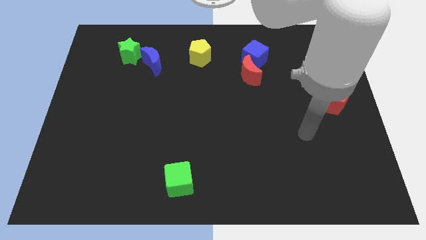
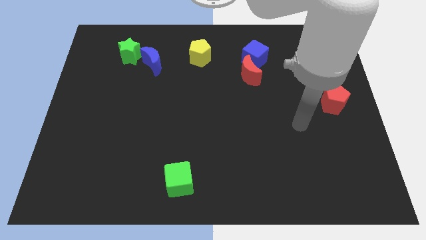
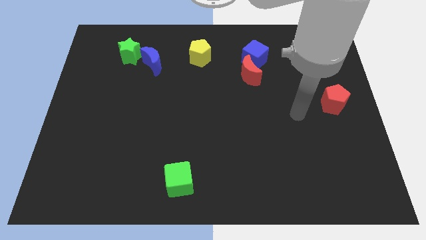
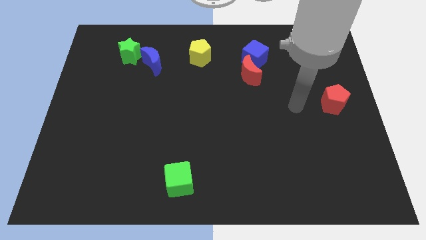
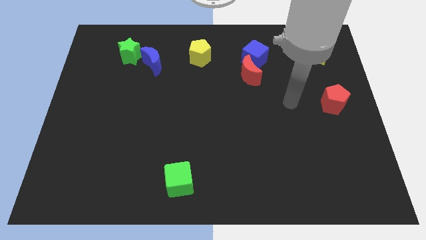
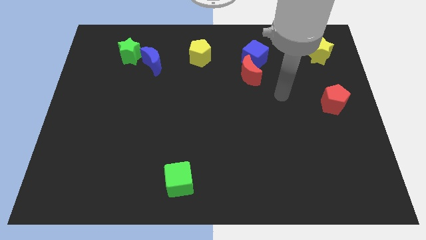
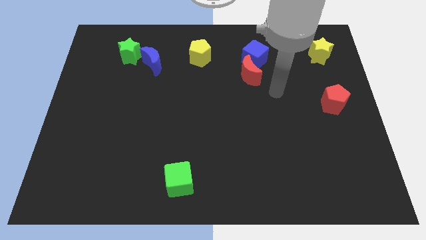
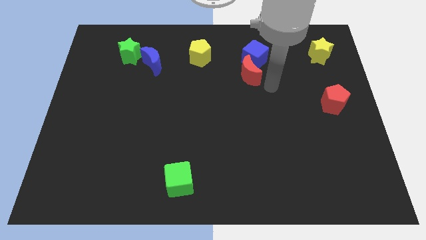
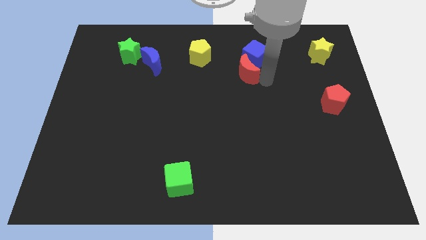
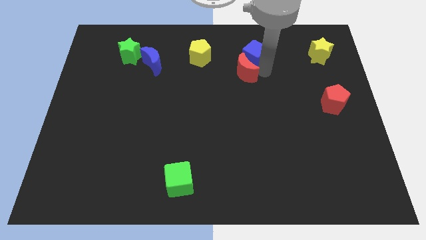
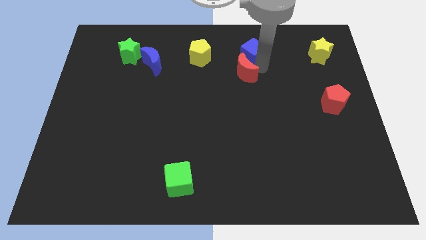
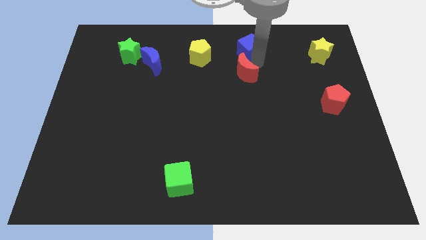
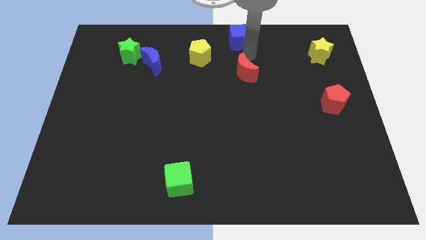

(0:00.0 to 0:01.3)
separate the red moon from the blue cube

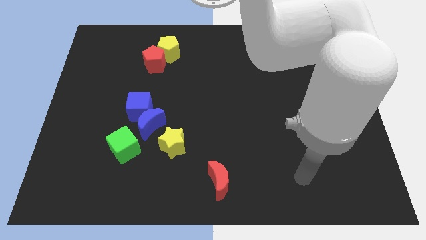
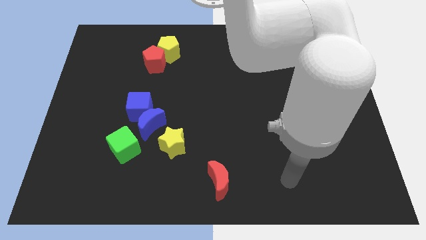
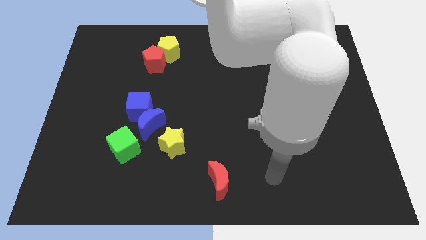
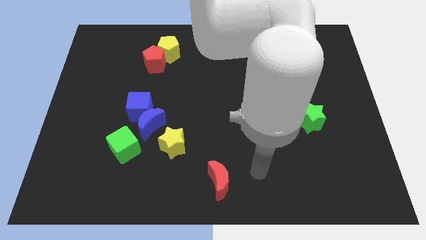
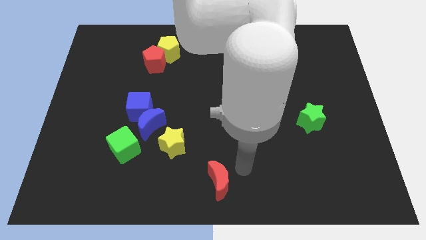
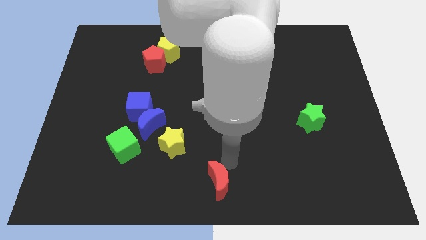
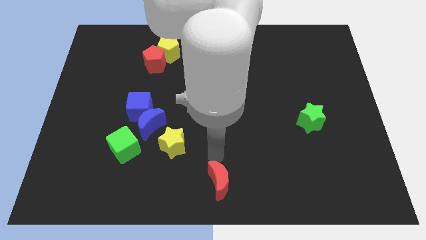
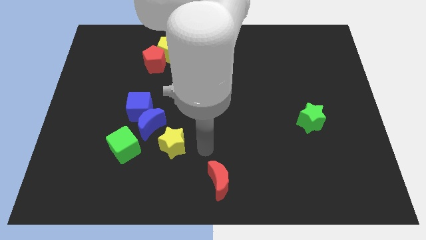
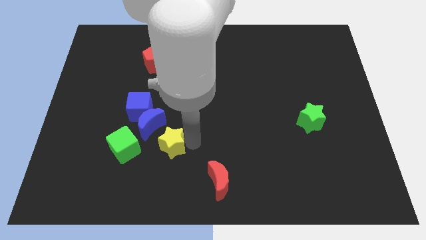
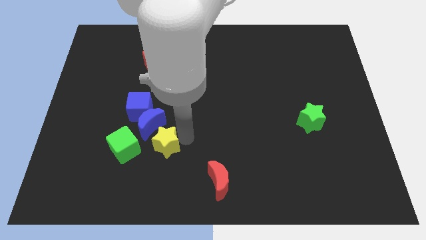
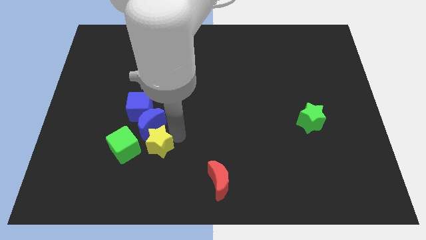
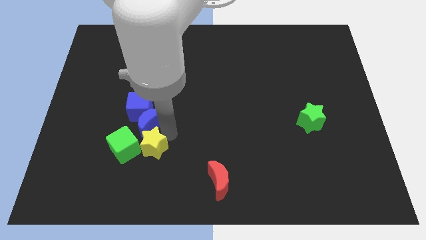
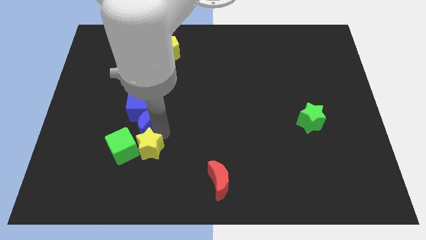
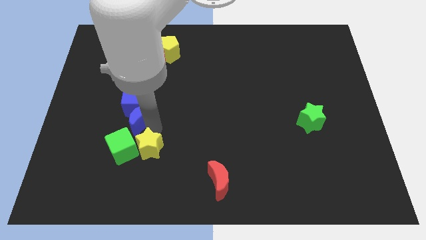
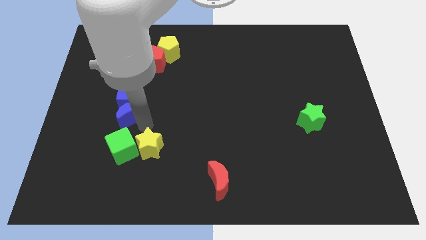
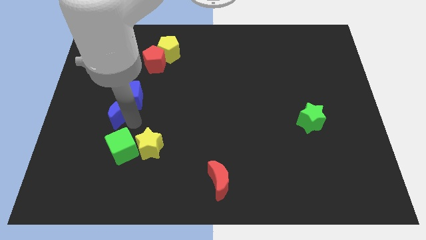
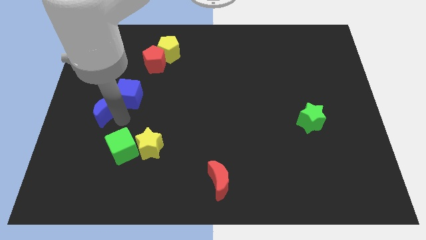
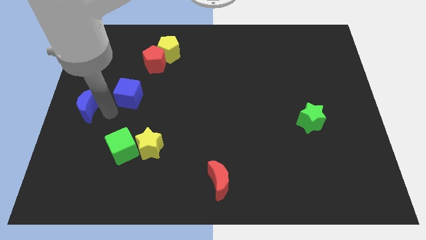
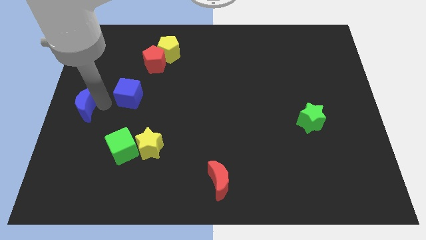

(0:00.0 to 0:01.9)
pull the blue cube apart from the blue moon

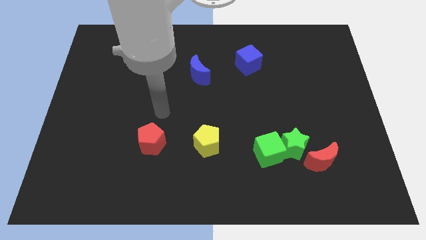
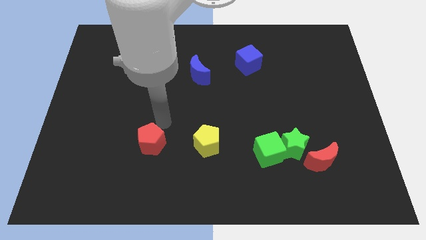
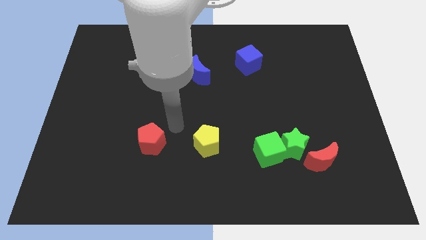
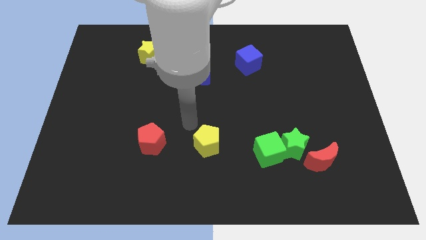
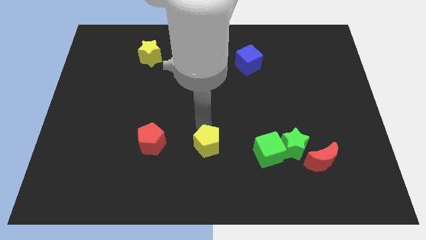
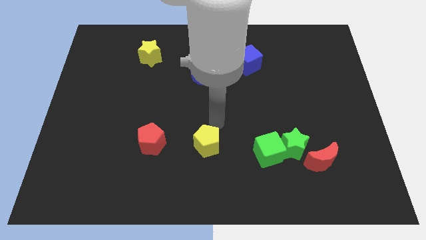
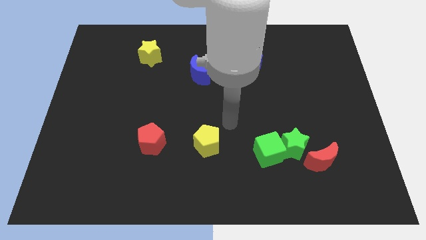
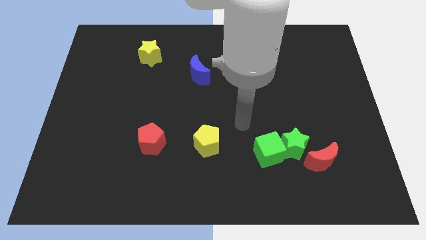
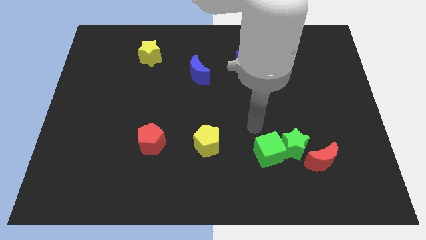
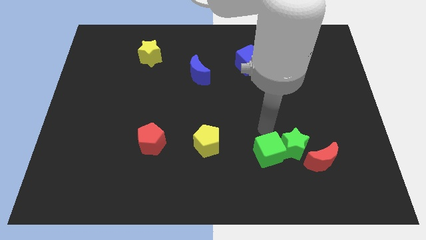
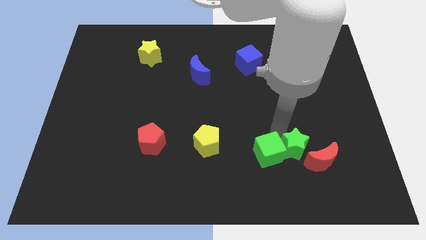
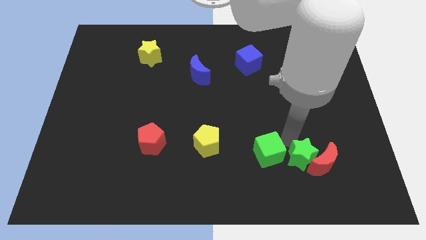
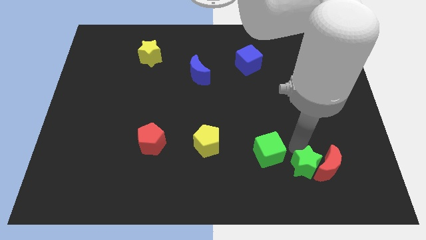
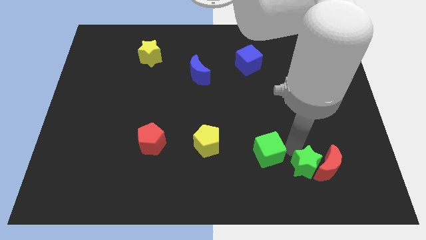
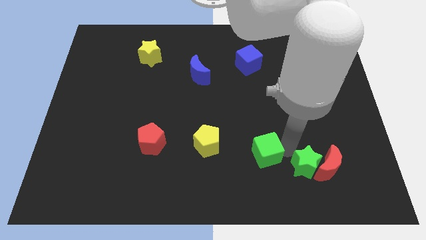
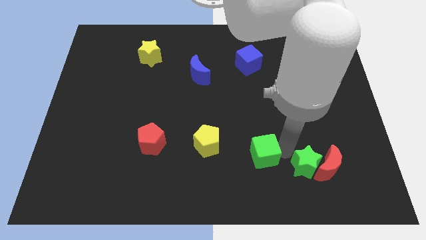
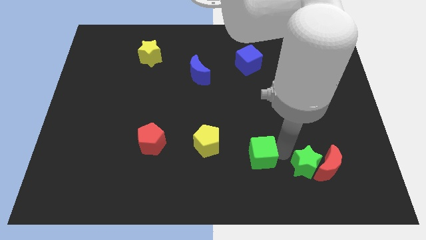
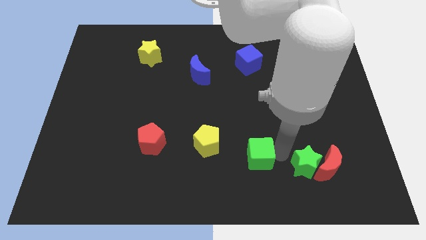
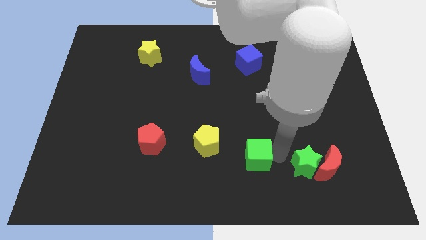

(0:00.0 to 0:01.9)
move the green cube away from the green star

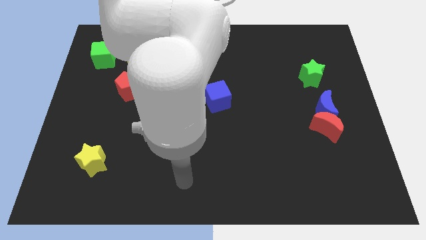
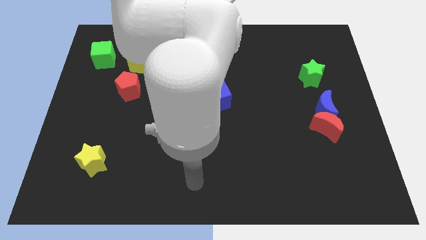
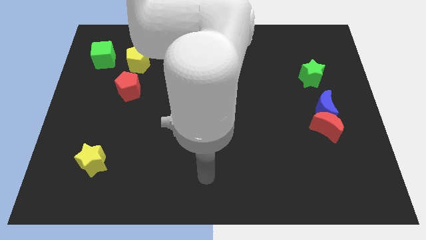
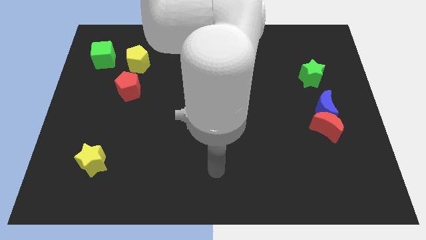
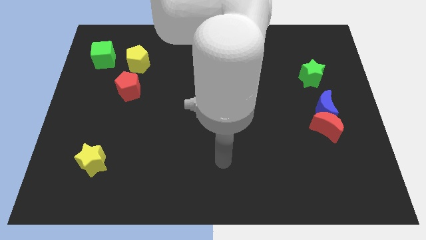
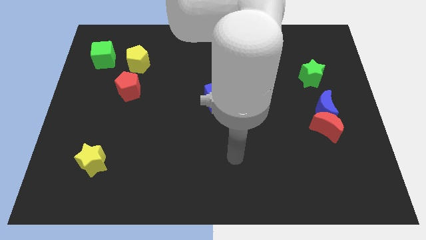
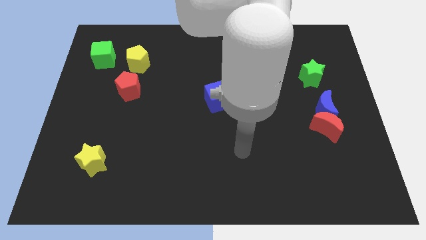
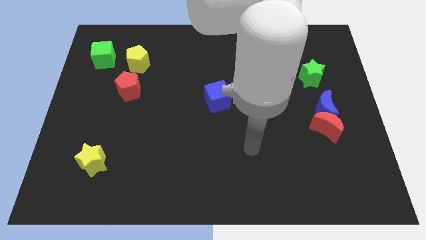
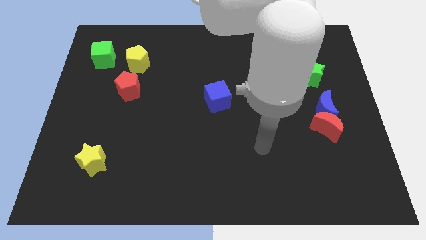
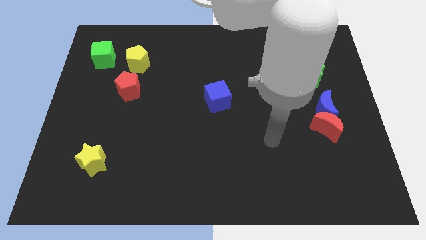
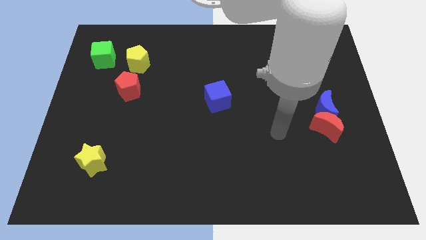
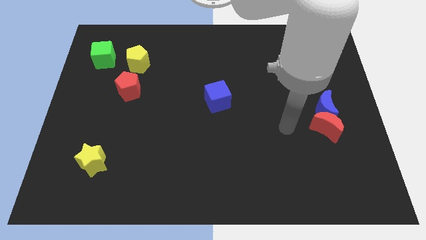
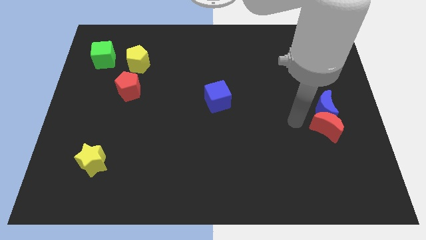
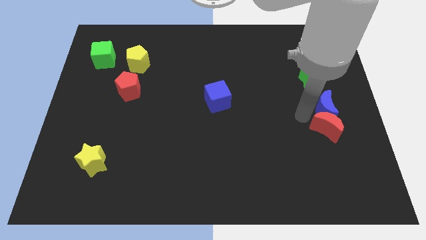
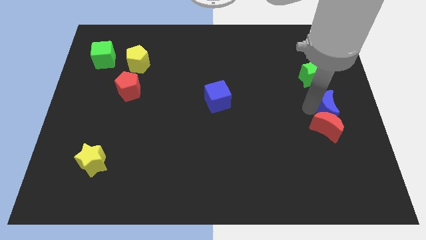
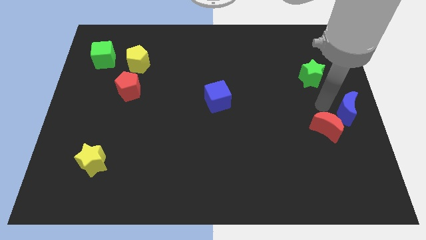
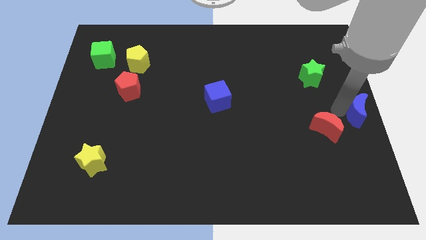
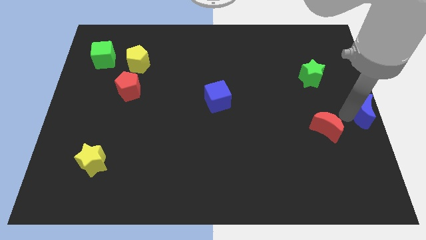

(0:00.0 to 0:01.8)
pull the red moon apart from the blue moon

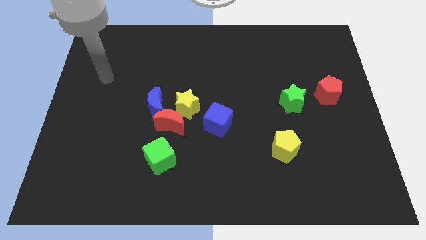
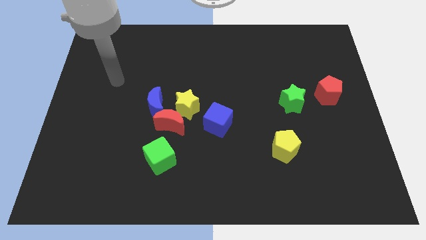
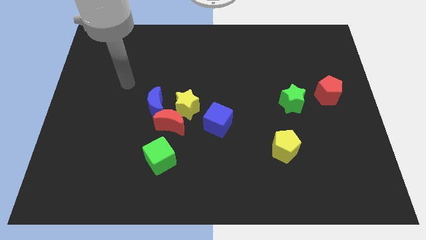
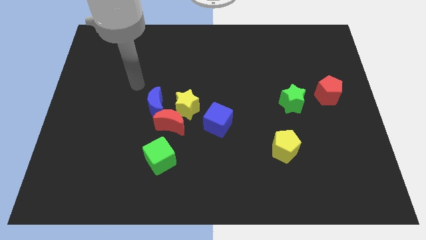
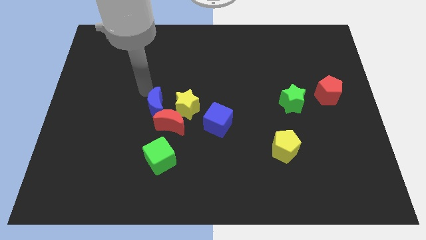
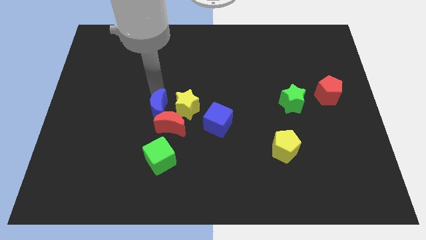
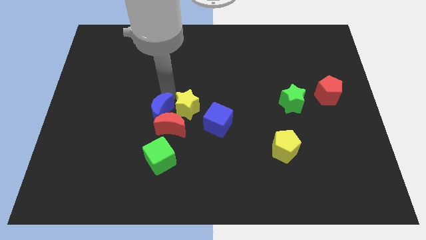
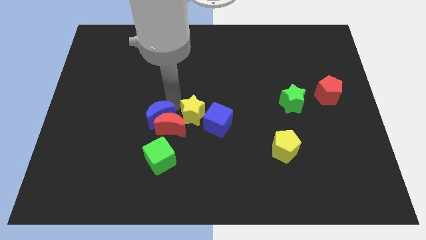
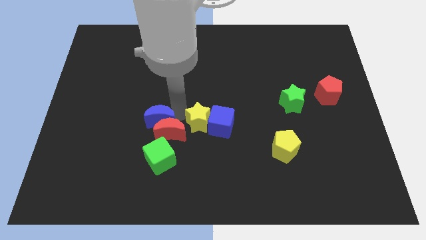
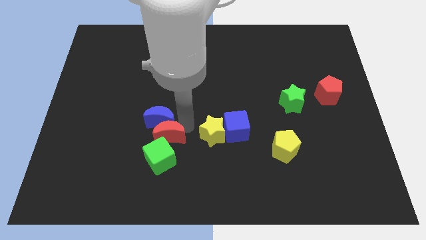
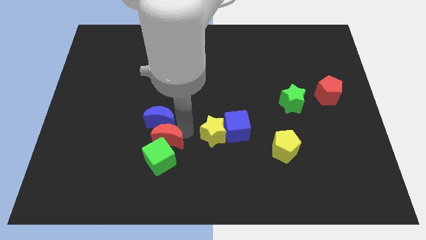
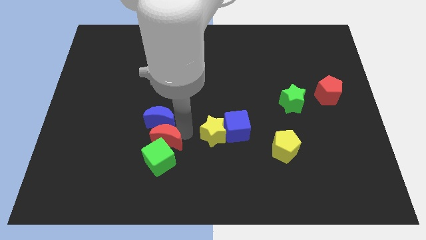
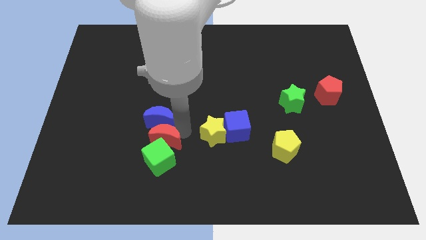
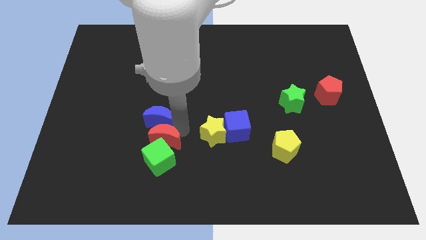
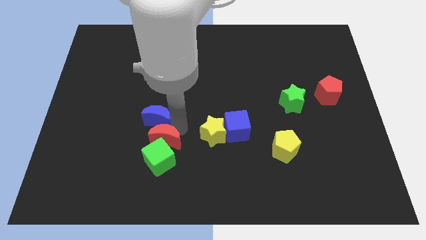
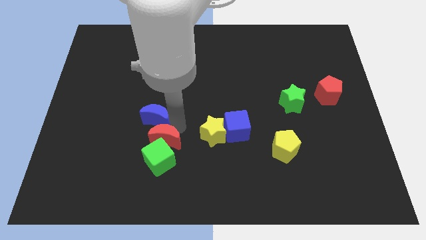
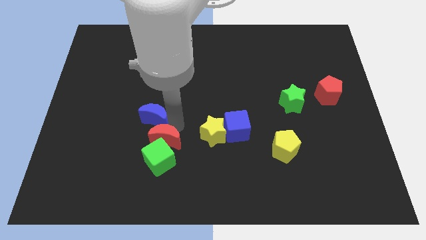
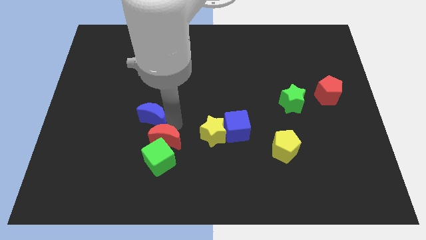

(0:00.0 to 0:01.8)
move the blue moon away from the red moon and yellow star

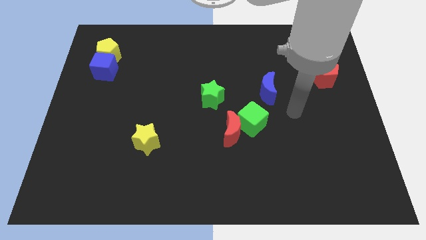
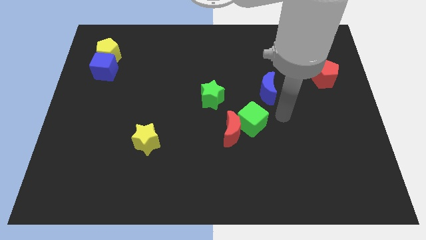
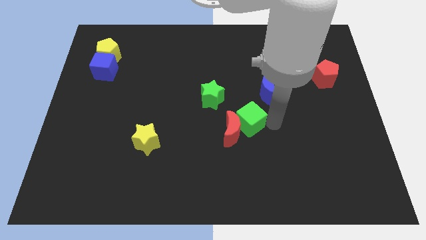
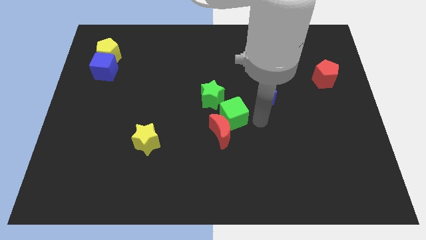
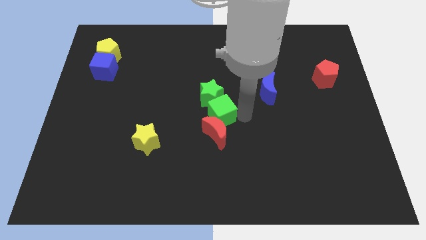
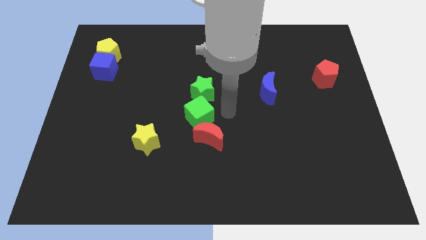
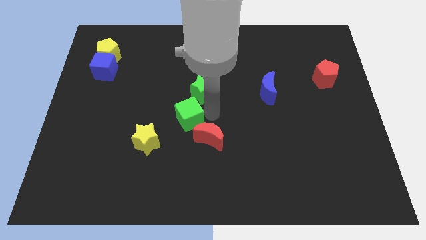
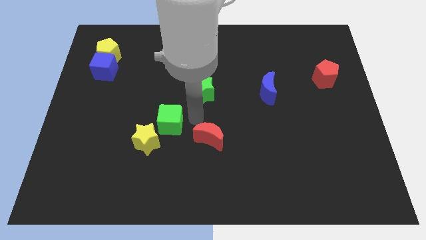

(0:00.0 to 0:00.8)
pull the red moon apart from the green cube
